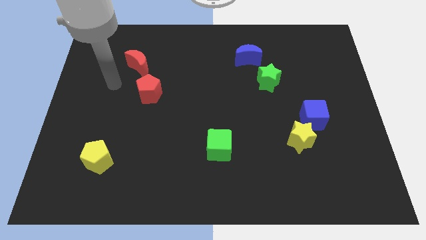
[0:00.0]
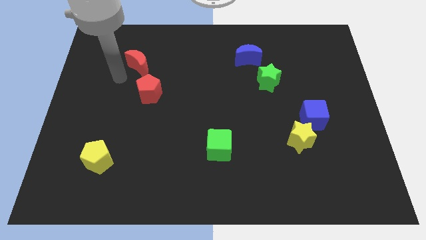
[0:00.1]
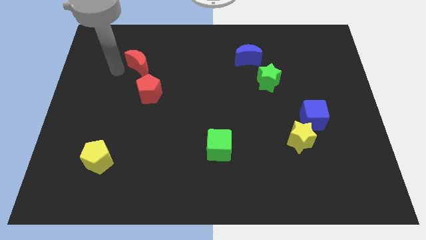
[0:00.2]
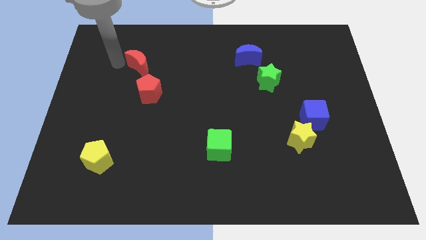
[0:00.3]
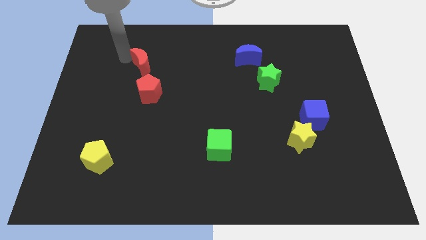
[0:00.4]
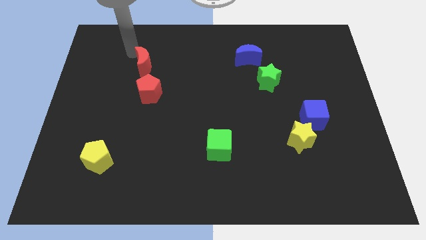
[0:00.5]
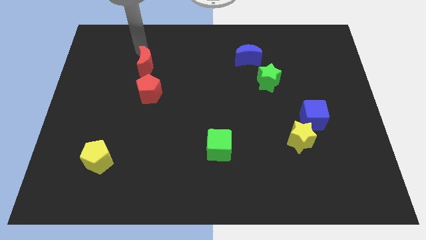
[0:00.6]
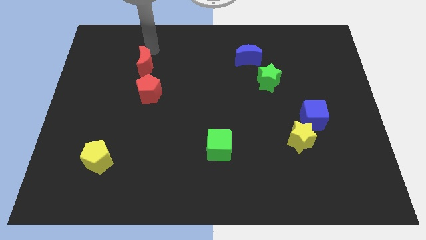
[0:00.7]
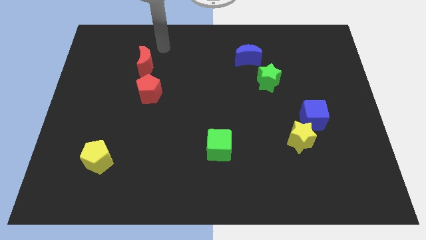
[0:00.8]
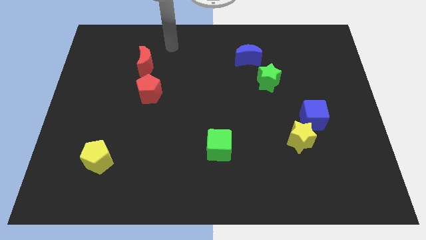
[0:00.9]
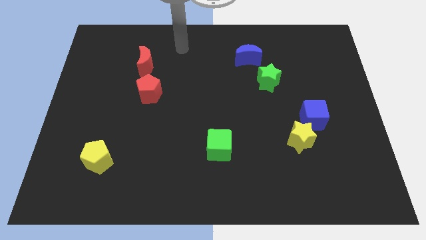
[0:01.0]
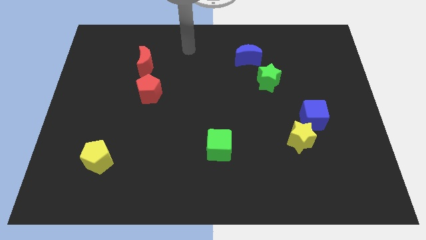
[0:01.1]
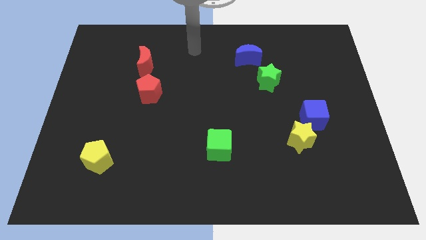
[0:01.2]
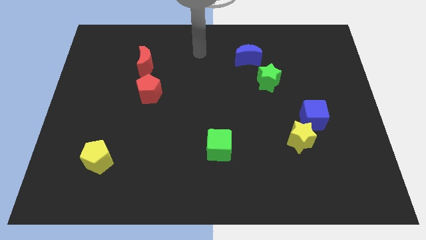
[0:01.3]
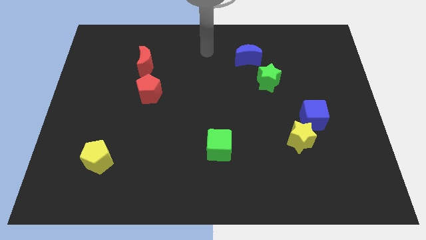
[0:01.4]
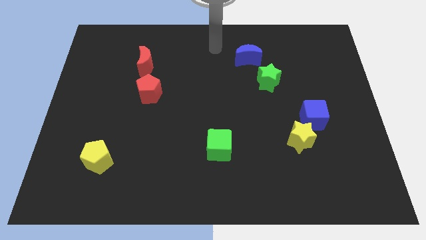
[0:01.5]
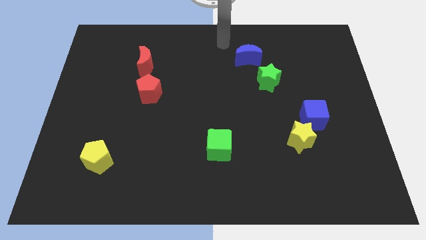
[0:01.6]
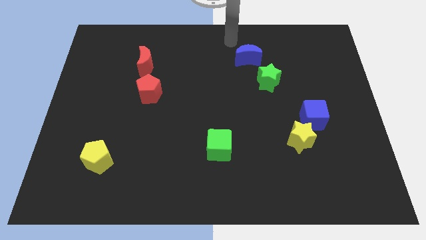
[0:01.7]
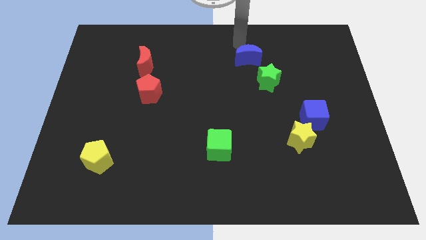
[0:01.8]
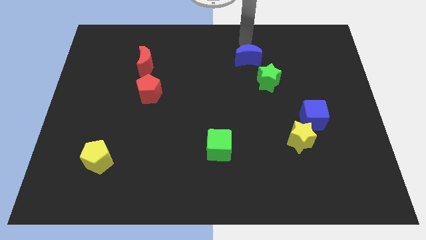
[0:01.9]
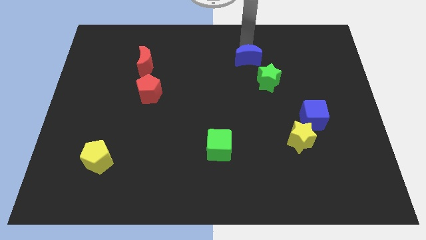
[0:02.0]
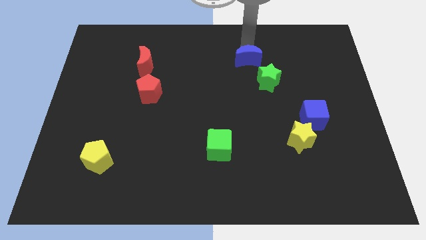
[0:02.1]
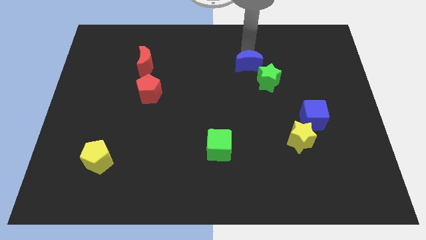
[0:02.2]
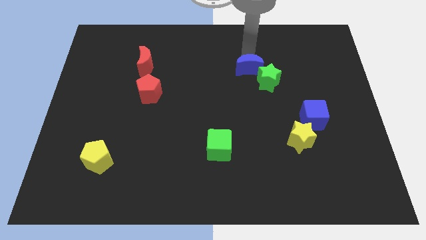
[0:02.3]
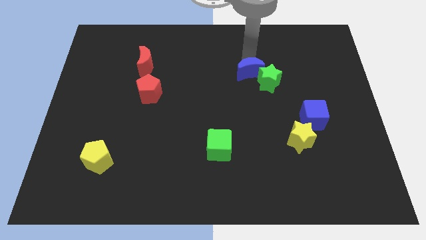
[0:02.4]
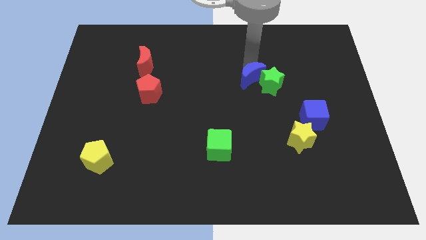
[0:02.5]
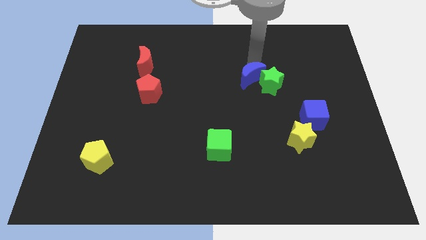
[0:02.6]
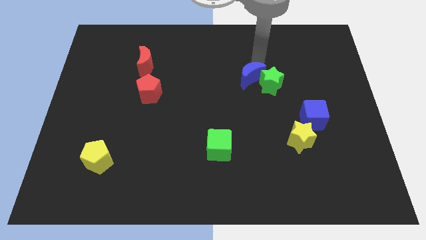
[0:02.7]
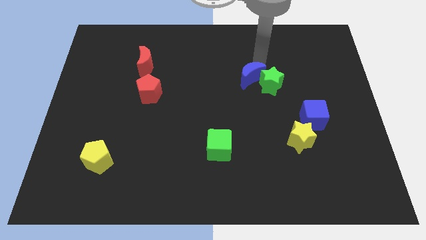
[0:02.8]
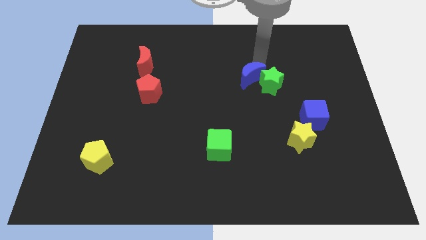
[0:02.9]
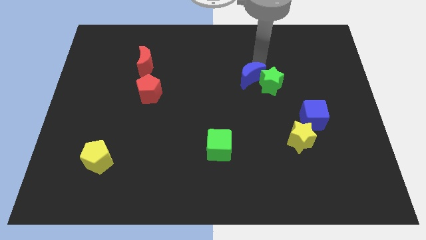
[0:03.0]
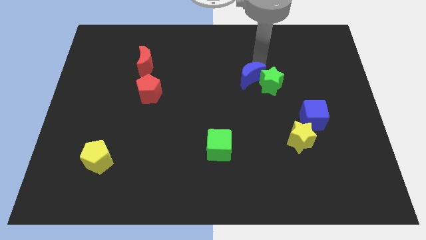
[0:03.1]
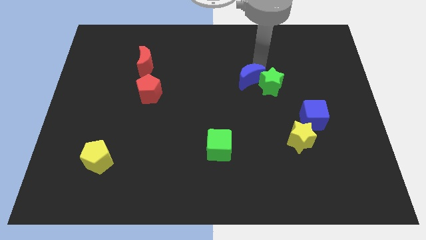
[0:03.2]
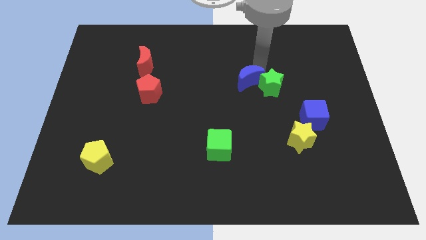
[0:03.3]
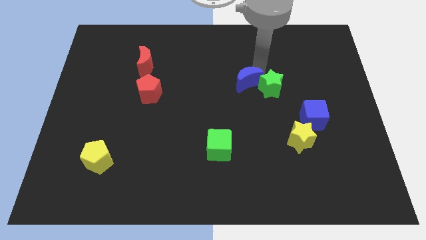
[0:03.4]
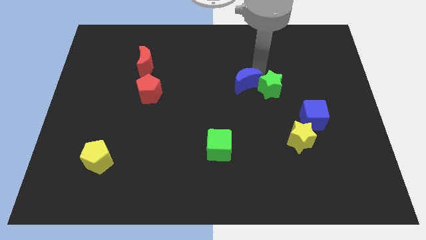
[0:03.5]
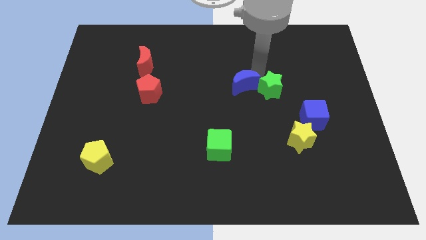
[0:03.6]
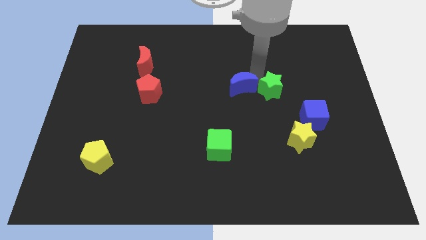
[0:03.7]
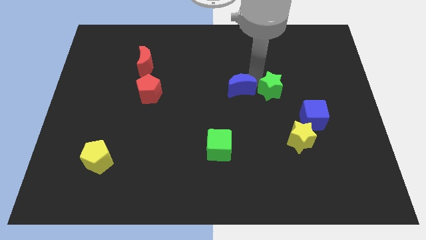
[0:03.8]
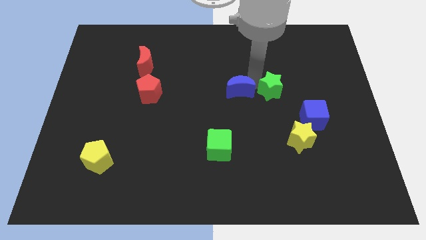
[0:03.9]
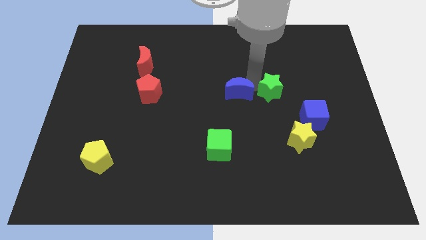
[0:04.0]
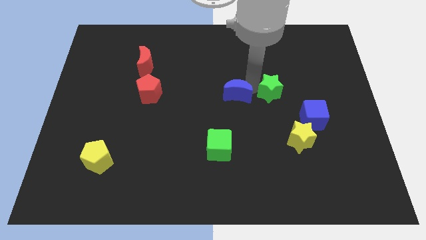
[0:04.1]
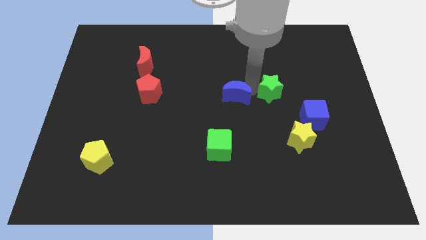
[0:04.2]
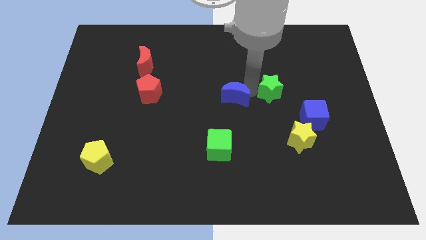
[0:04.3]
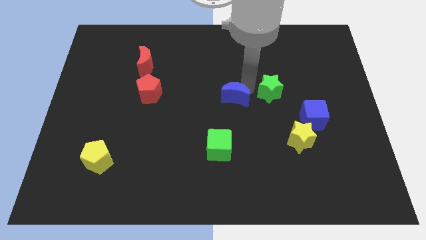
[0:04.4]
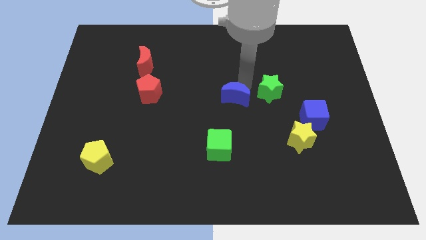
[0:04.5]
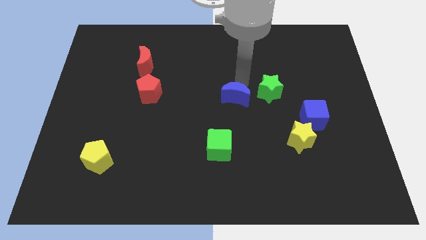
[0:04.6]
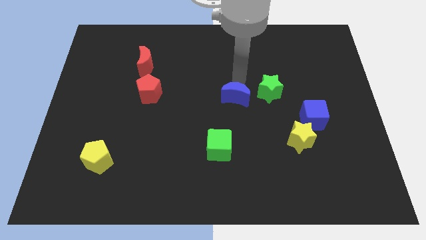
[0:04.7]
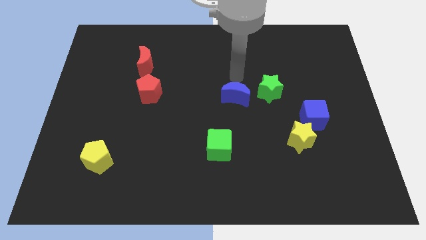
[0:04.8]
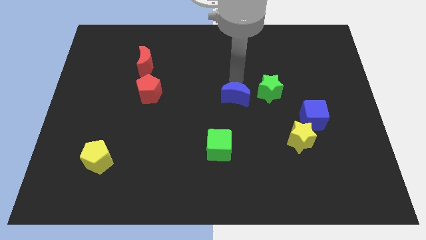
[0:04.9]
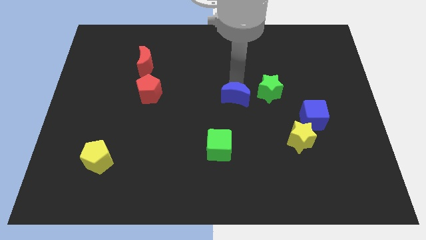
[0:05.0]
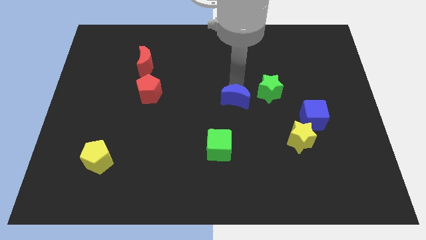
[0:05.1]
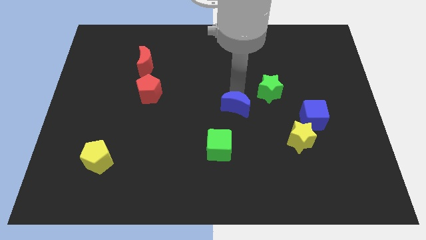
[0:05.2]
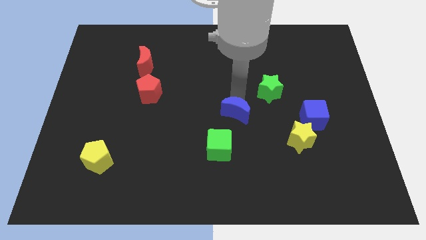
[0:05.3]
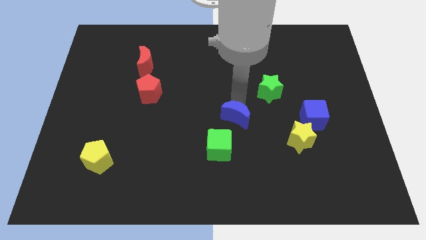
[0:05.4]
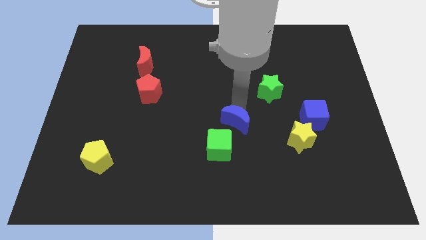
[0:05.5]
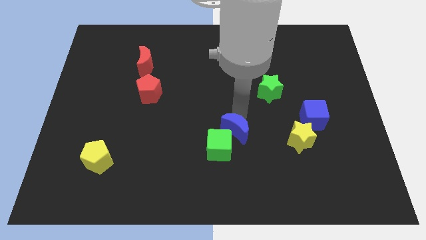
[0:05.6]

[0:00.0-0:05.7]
move the blue moon next to the green cube

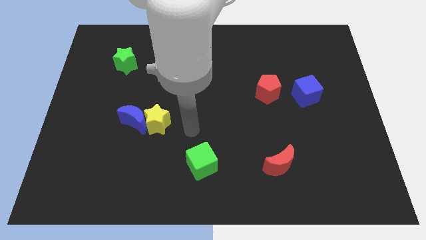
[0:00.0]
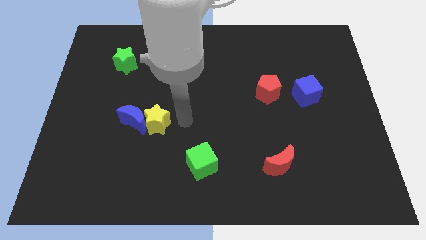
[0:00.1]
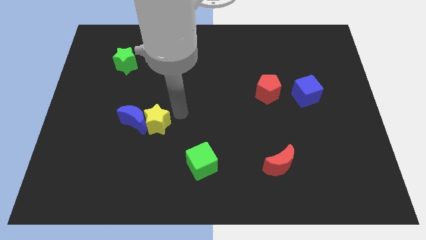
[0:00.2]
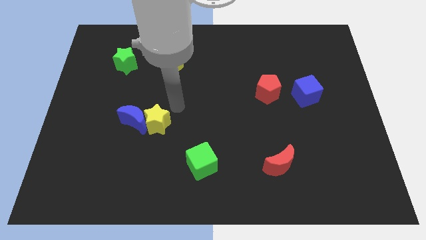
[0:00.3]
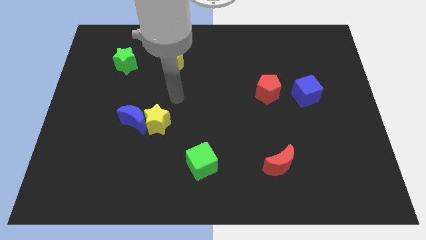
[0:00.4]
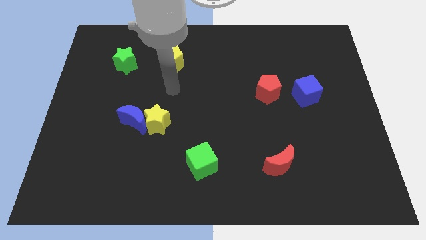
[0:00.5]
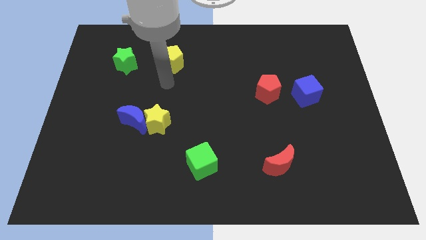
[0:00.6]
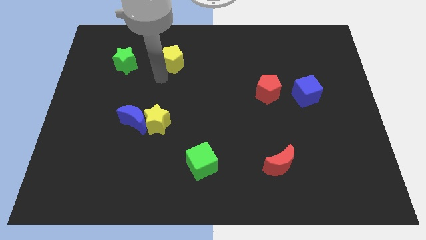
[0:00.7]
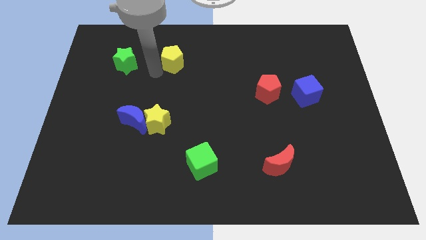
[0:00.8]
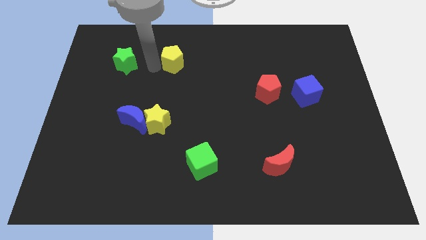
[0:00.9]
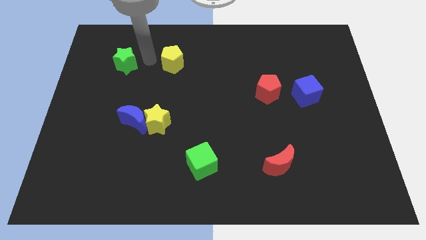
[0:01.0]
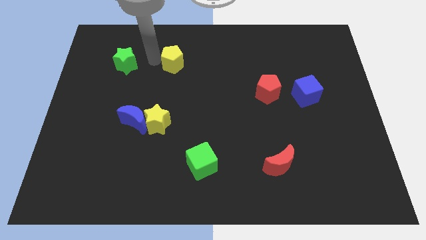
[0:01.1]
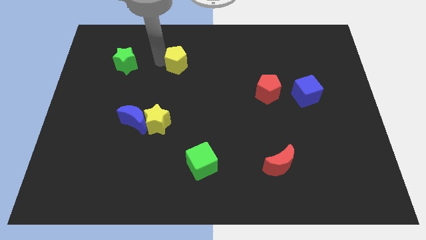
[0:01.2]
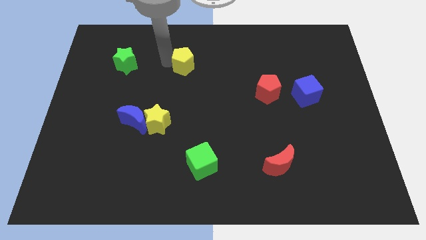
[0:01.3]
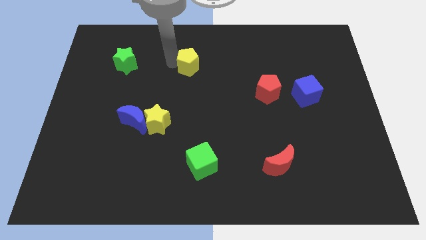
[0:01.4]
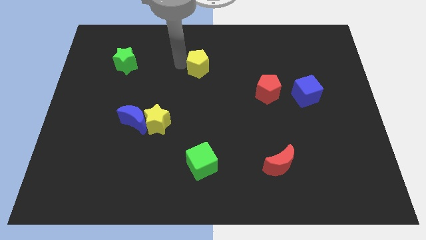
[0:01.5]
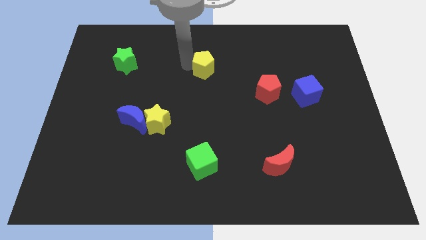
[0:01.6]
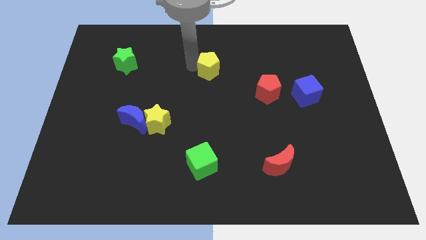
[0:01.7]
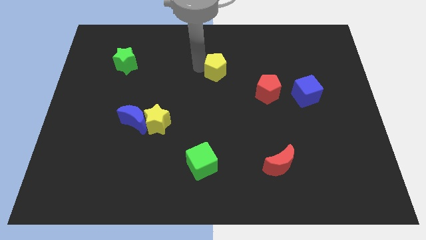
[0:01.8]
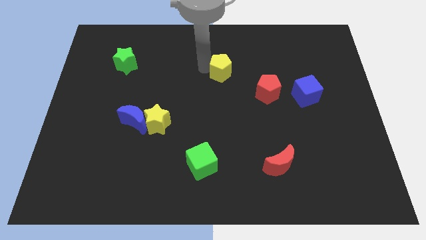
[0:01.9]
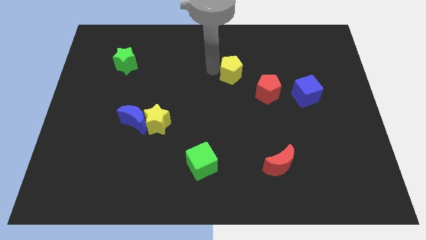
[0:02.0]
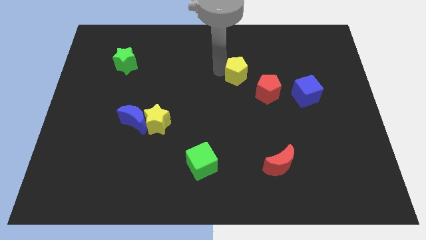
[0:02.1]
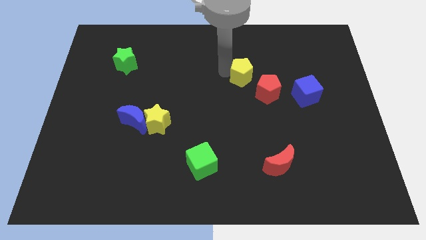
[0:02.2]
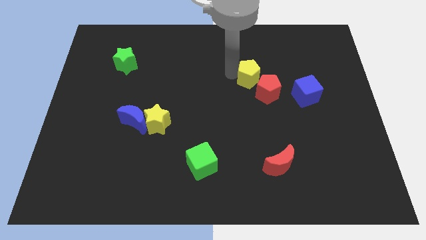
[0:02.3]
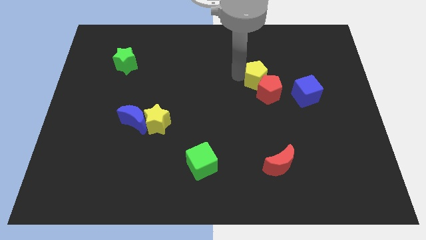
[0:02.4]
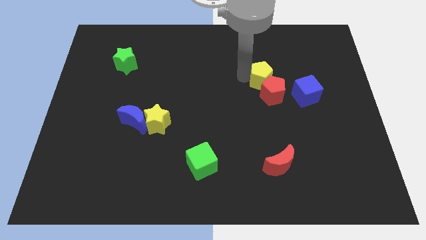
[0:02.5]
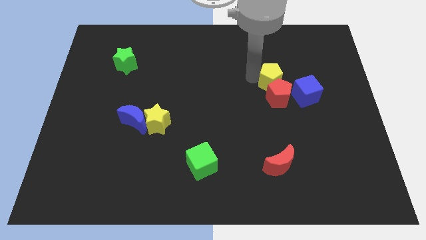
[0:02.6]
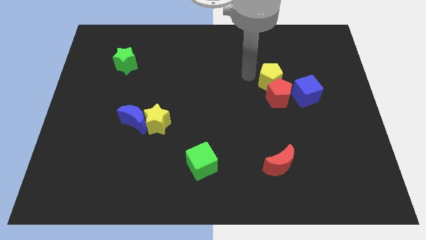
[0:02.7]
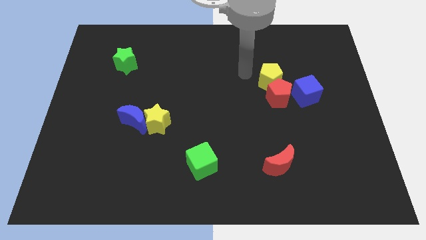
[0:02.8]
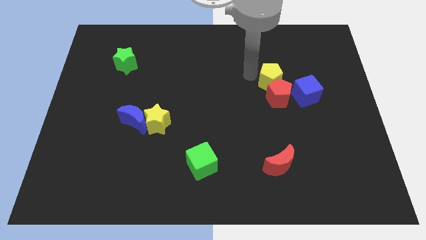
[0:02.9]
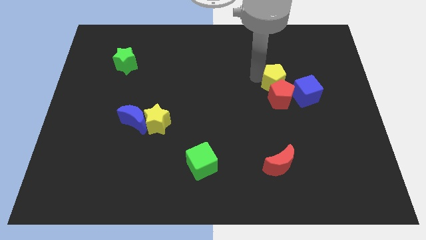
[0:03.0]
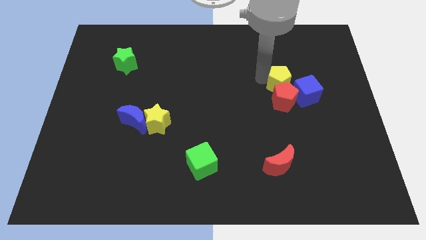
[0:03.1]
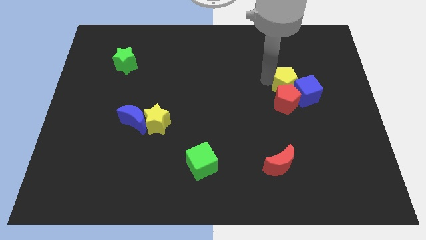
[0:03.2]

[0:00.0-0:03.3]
push the yellow pentagon towards the blue cube
